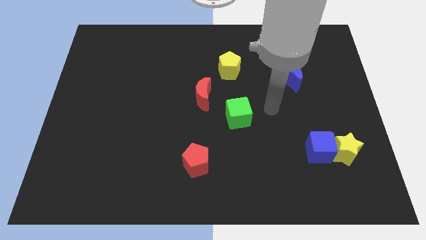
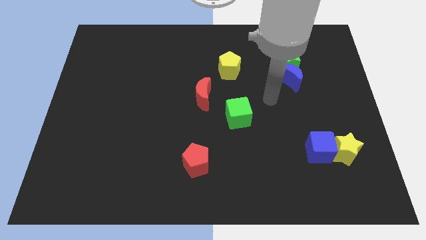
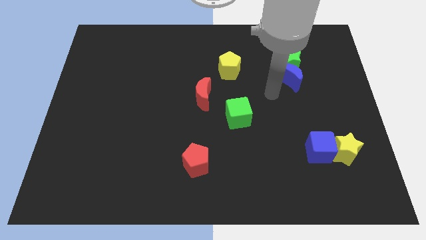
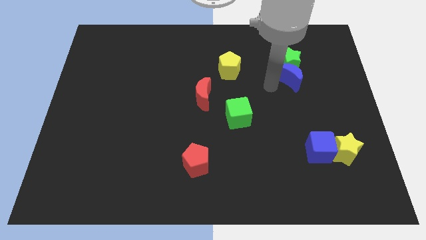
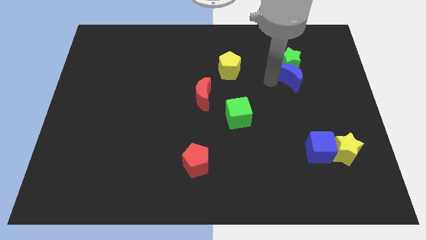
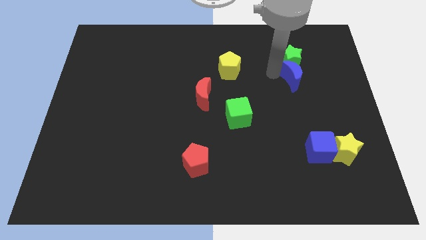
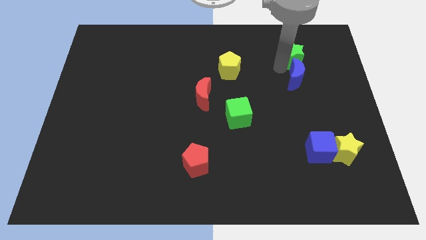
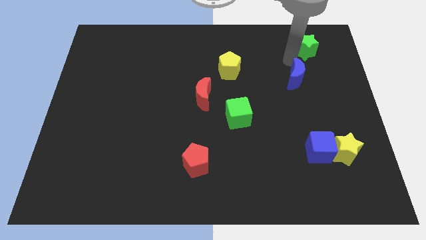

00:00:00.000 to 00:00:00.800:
separate the blue moon from the green star

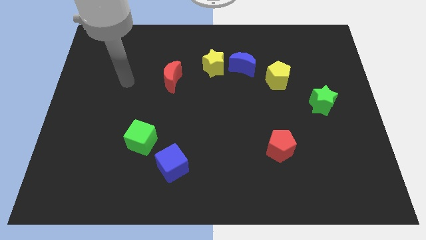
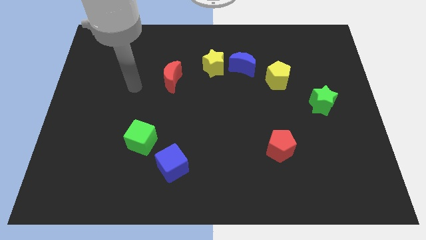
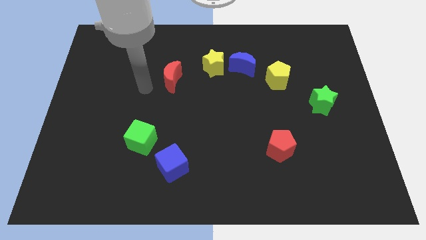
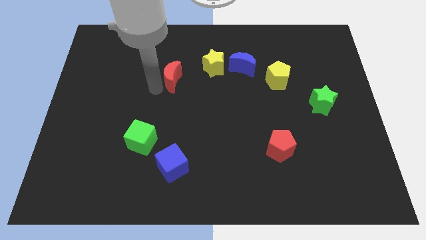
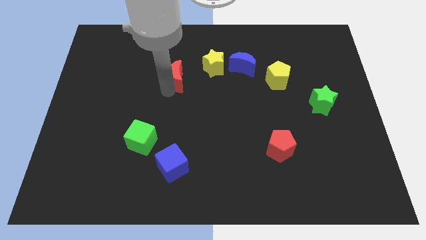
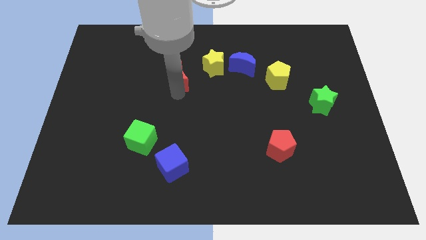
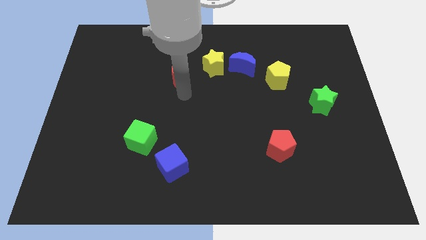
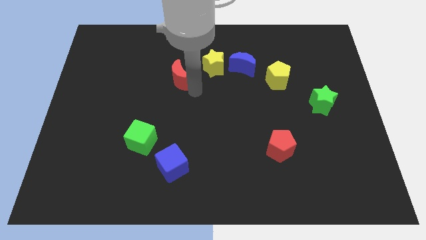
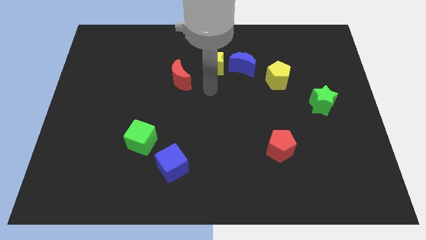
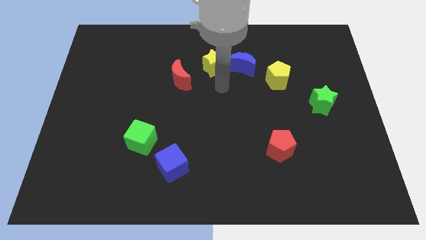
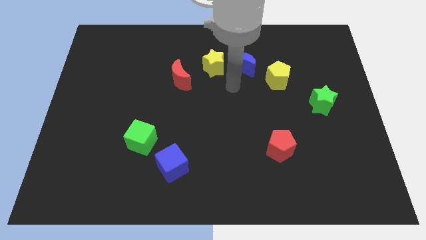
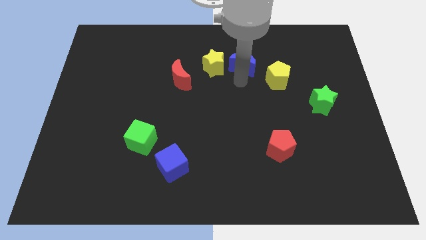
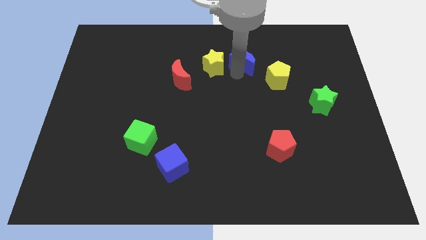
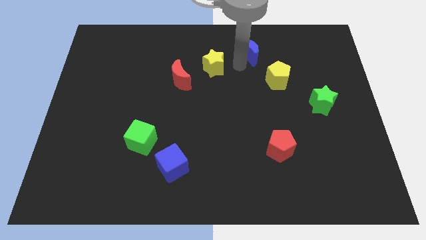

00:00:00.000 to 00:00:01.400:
separate the yellow star from the blue moon

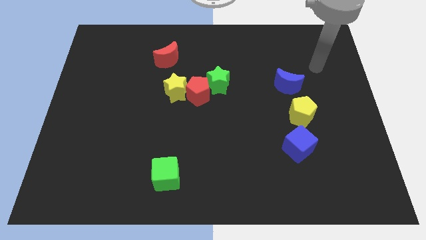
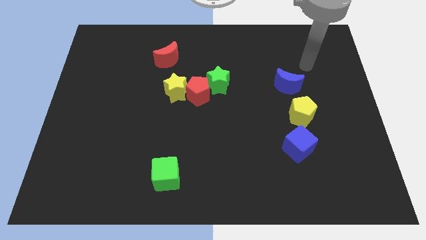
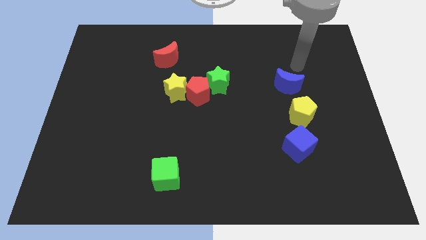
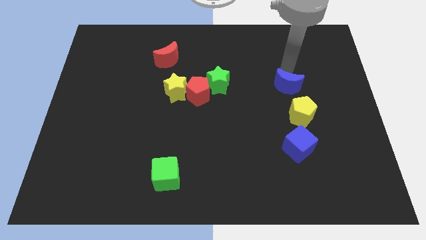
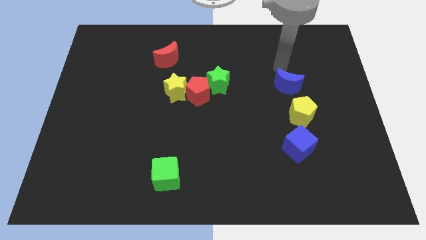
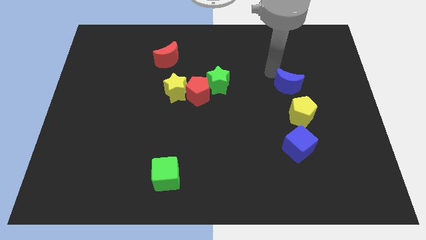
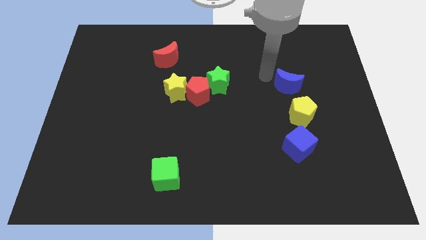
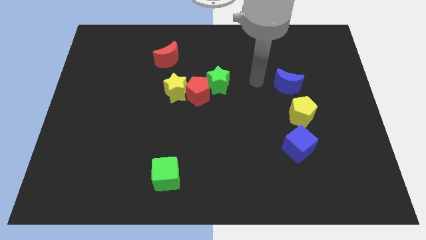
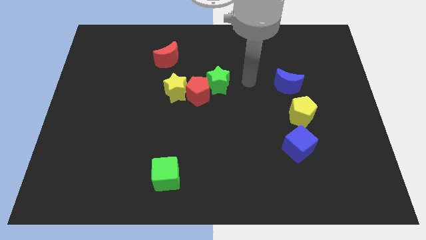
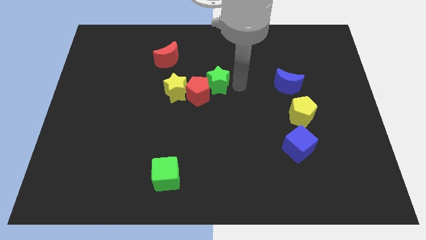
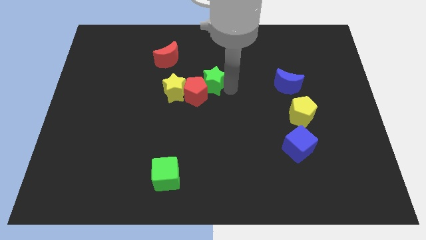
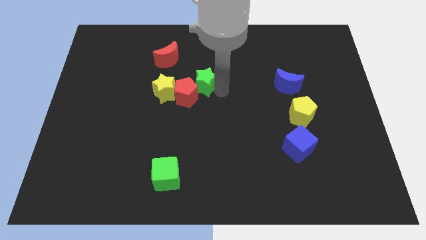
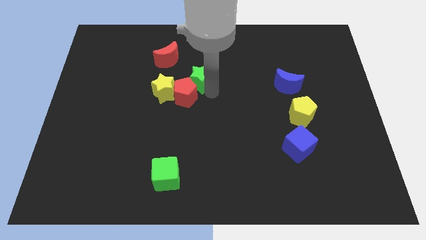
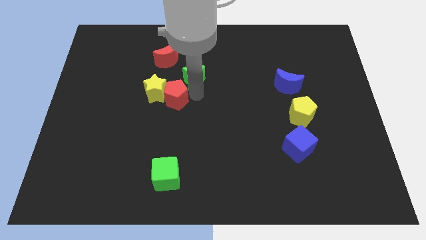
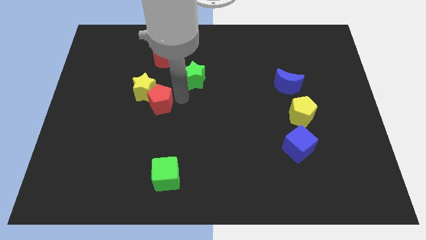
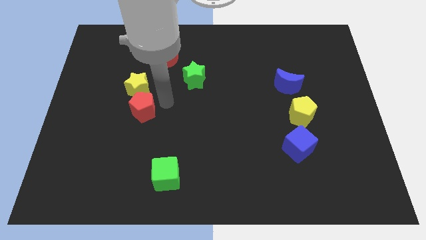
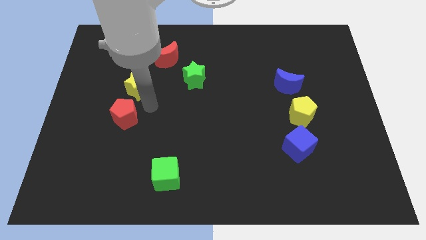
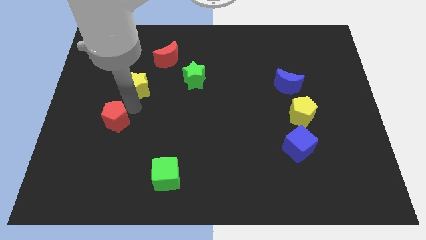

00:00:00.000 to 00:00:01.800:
pull the yellow star apart from the red pentagon

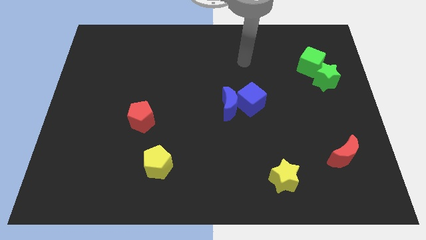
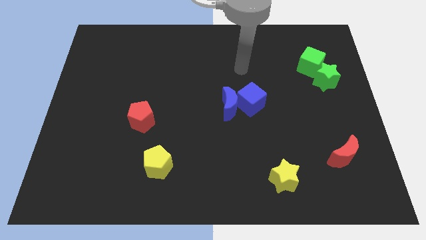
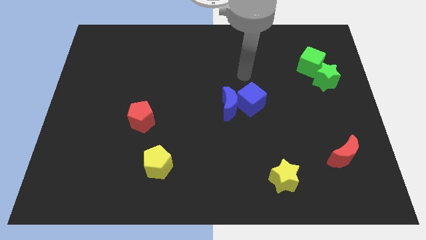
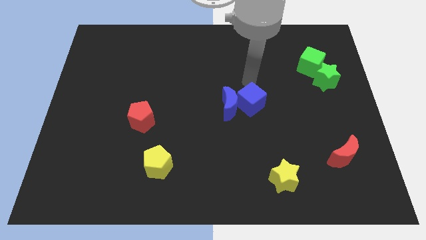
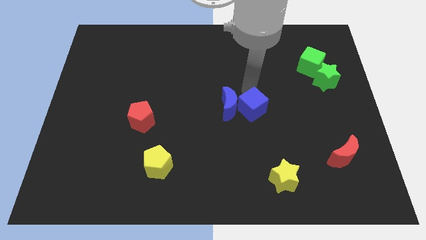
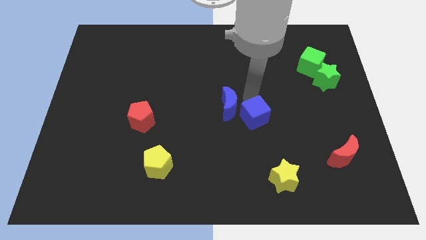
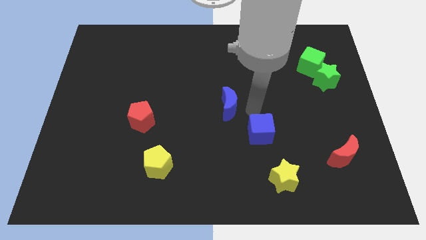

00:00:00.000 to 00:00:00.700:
pull the blue moon apart from the blue cube

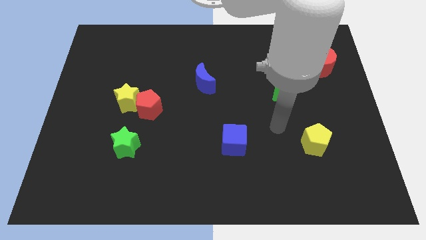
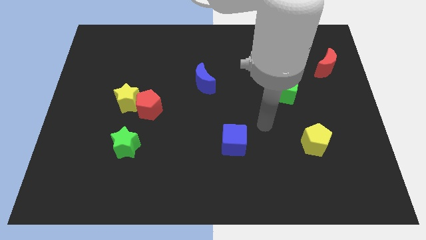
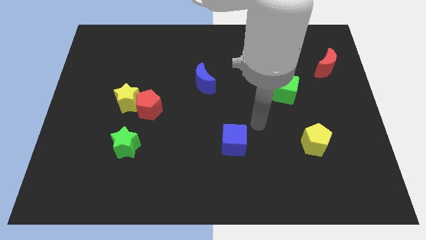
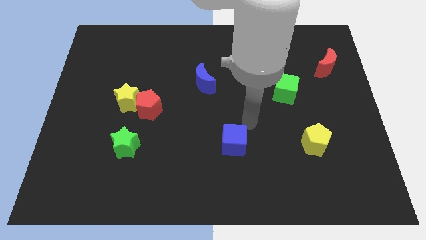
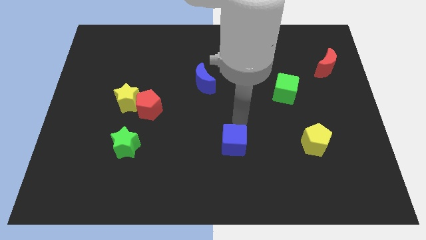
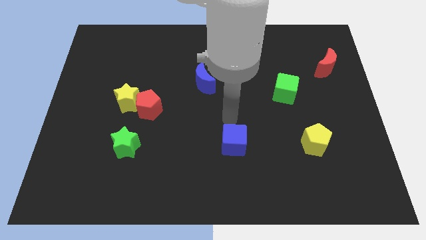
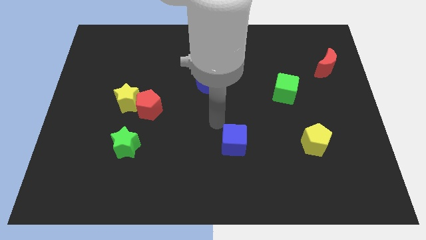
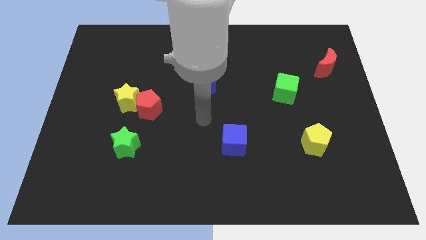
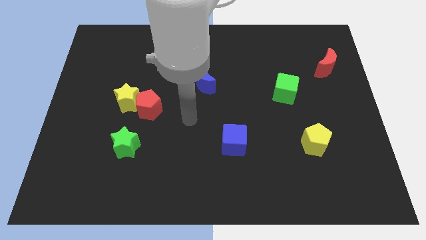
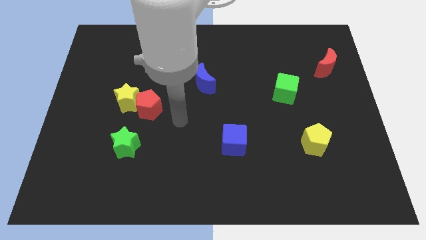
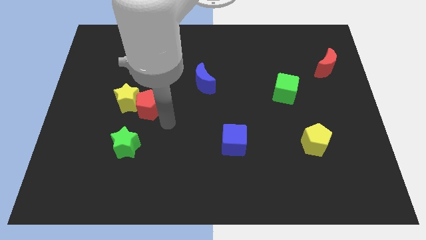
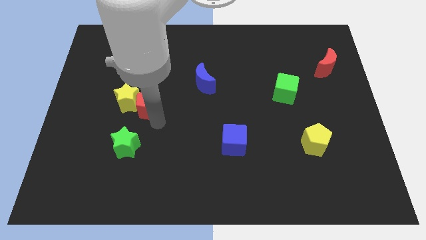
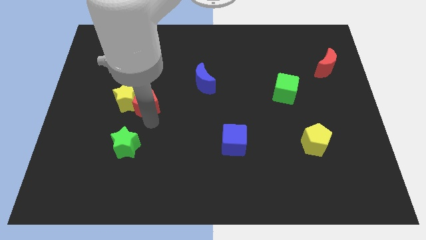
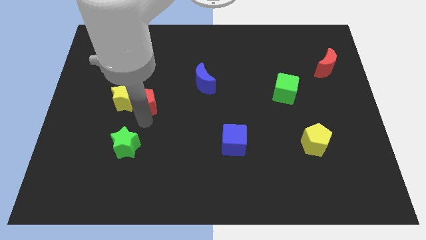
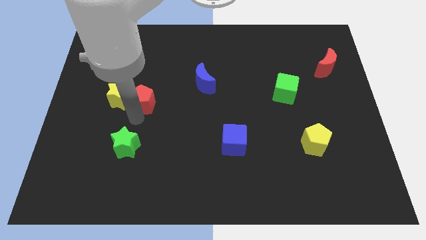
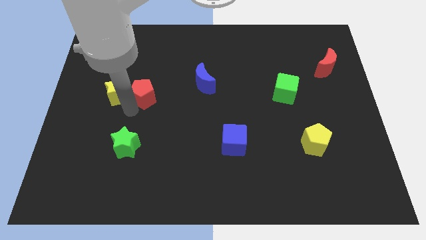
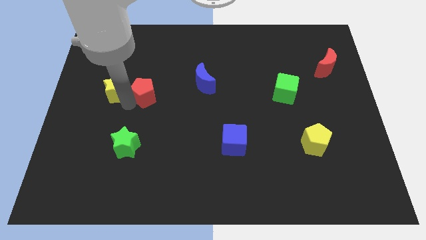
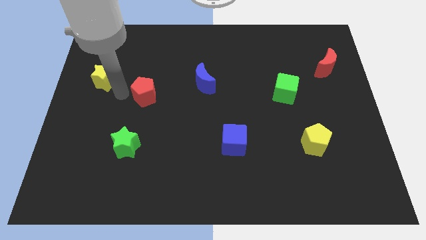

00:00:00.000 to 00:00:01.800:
move the red pentagon away from the yellow star

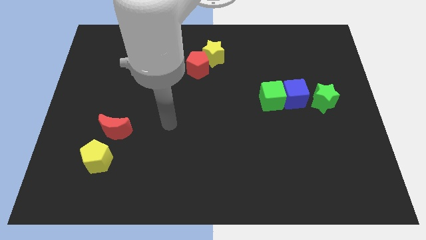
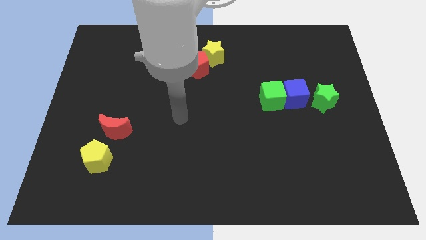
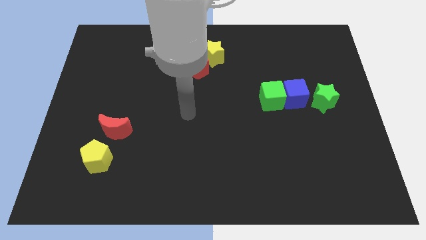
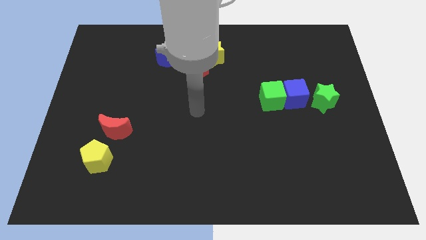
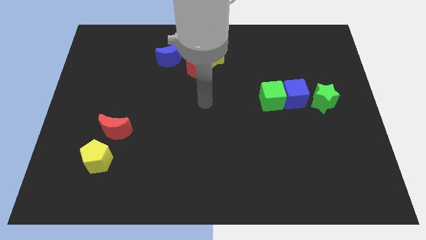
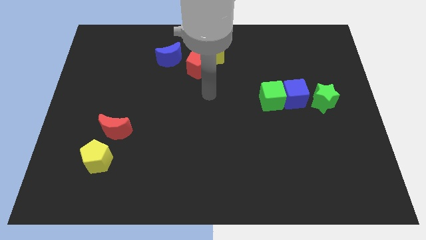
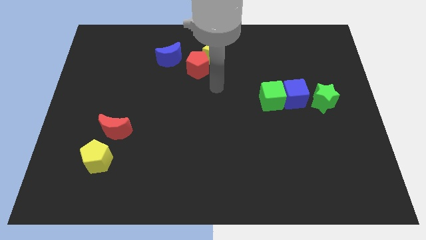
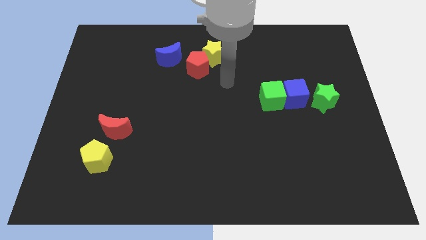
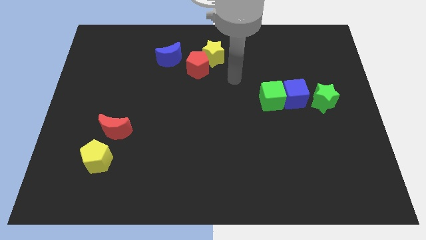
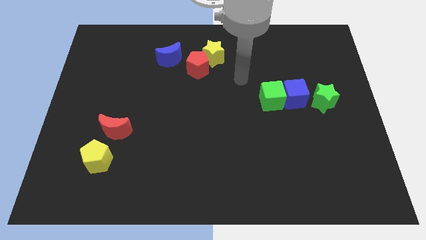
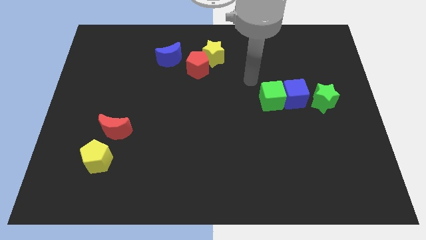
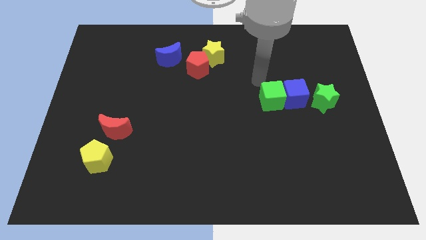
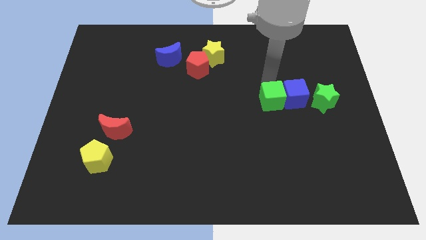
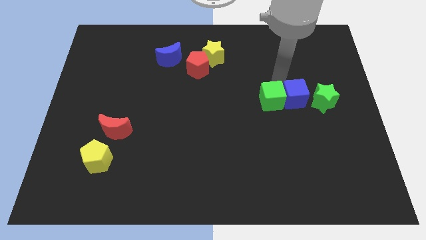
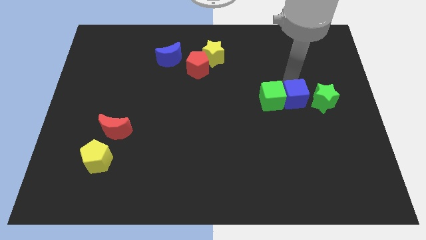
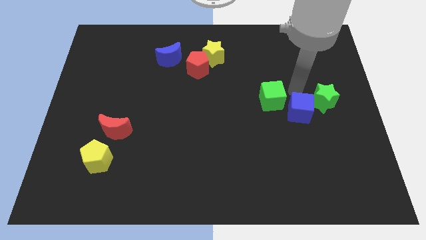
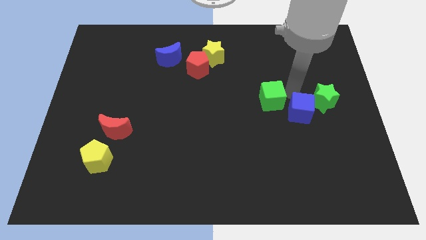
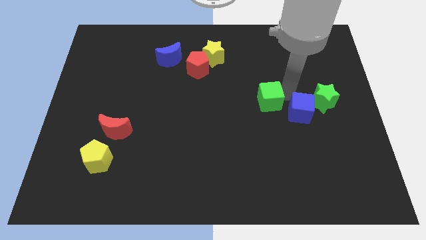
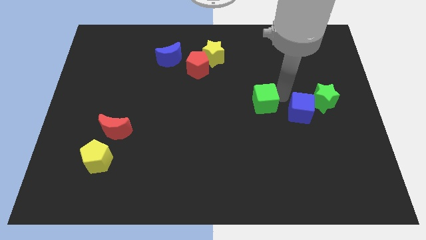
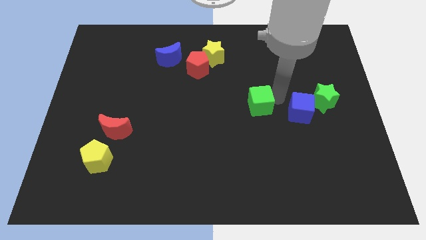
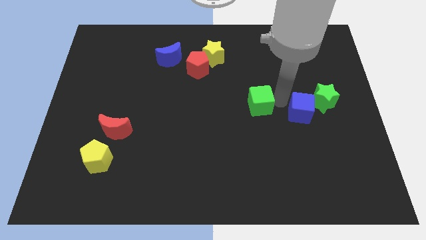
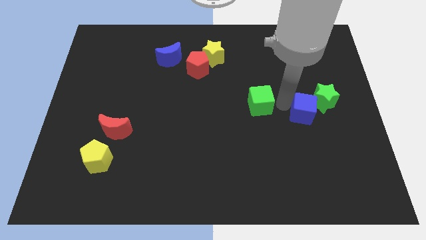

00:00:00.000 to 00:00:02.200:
pull the green cube apart from the blue cube

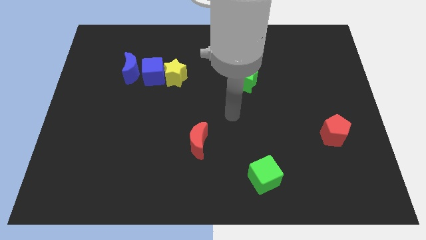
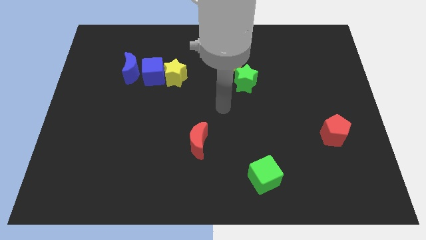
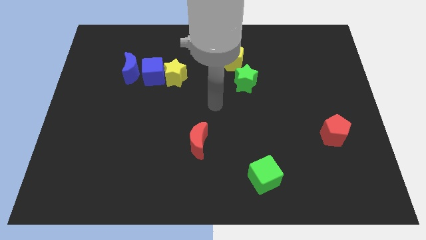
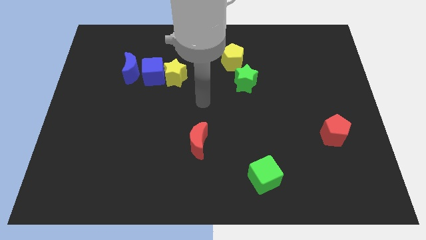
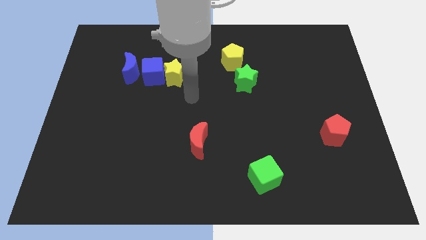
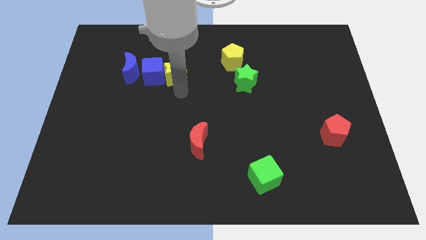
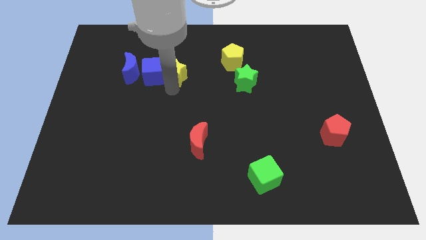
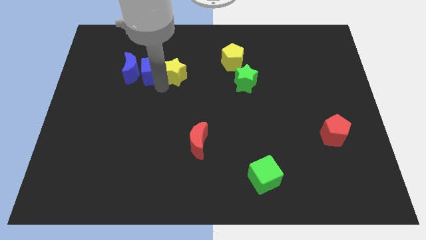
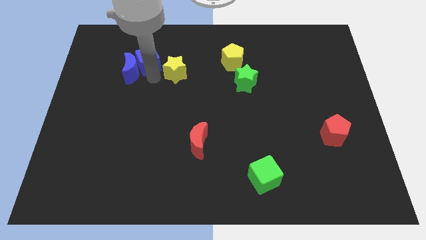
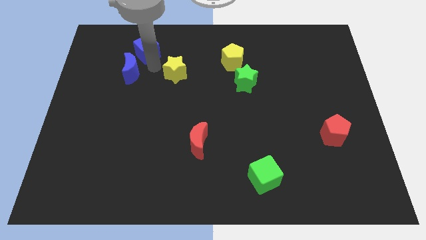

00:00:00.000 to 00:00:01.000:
move the yellow star away from the blue cube
